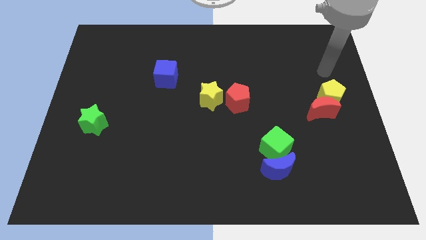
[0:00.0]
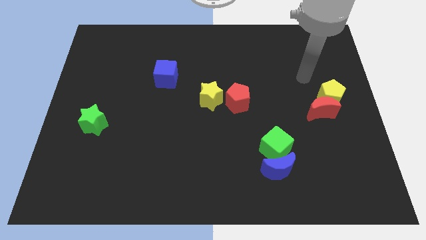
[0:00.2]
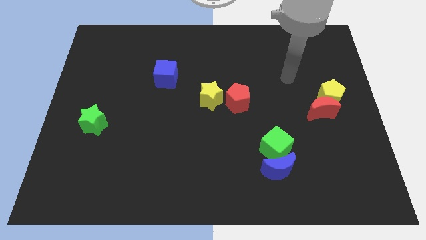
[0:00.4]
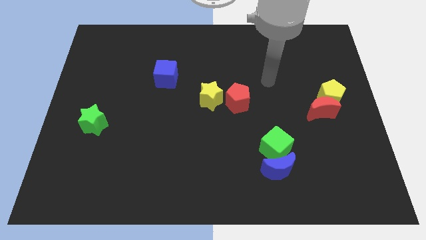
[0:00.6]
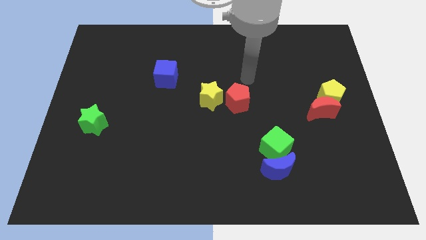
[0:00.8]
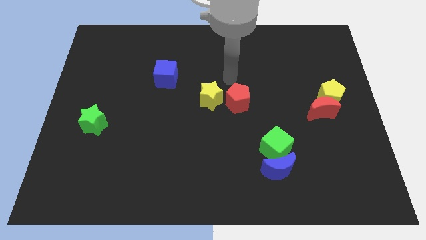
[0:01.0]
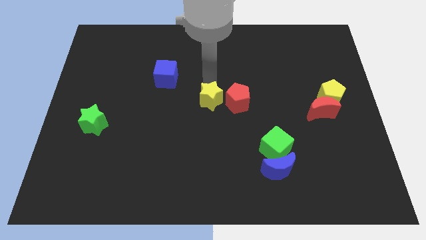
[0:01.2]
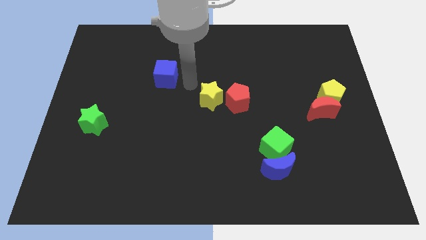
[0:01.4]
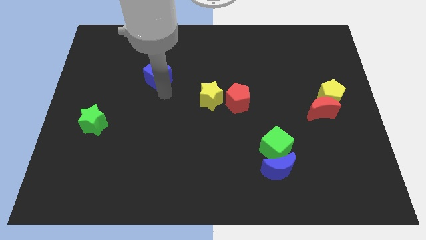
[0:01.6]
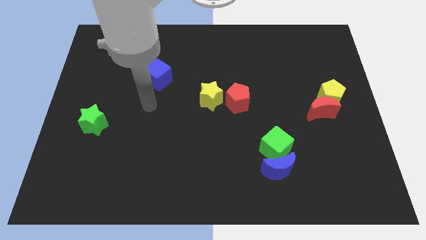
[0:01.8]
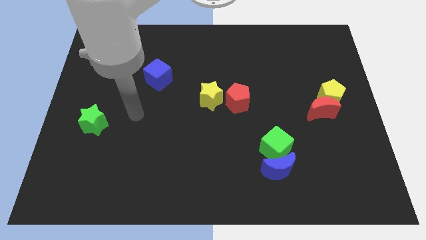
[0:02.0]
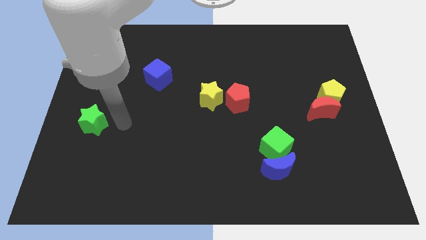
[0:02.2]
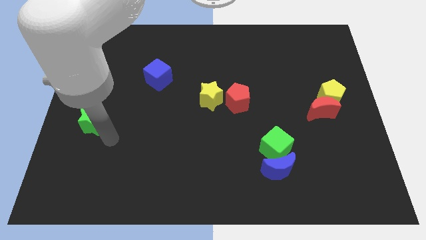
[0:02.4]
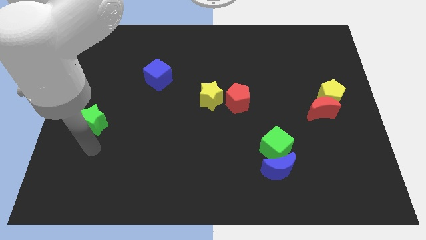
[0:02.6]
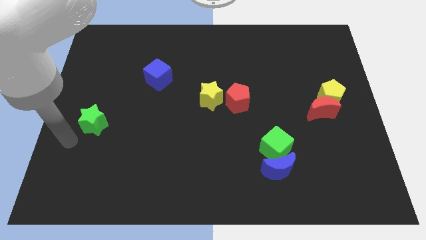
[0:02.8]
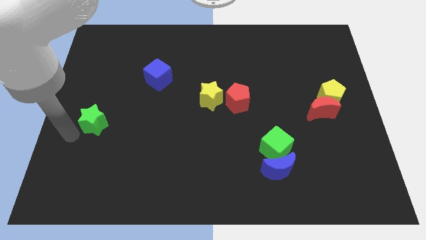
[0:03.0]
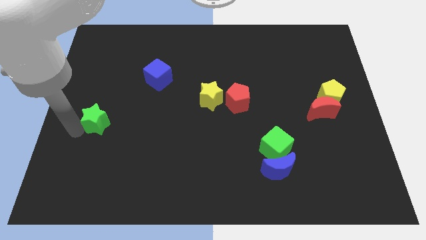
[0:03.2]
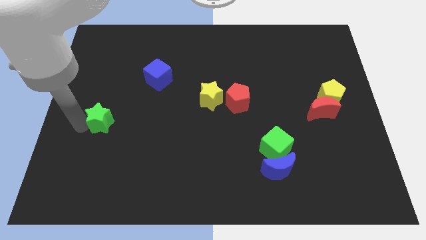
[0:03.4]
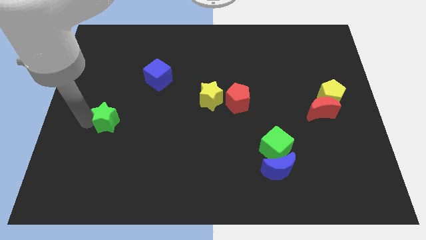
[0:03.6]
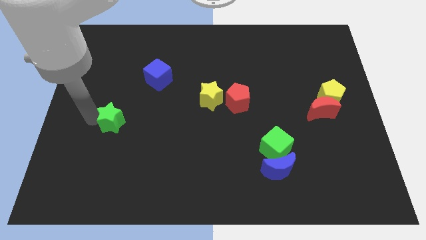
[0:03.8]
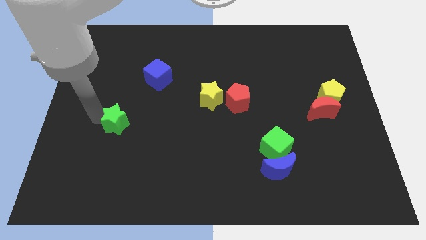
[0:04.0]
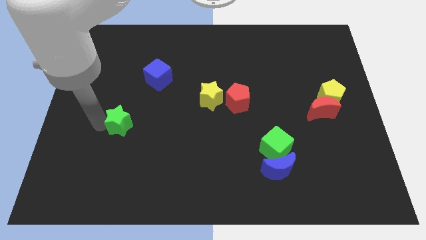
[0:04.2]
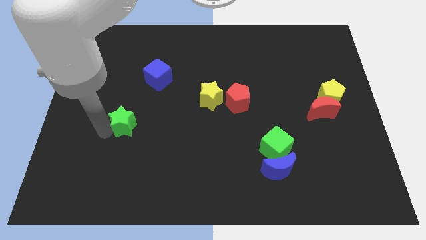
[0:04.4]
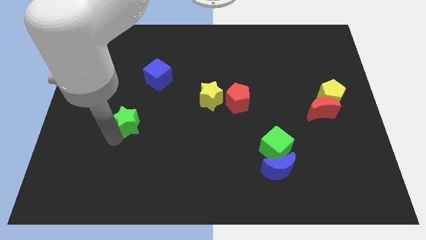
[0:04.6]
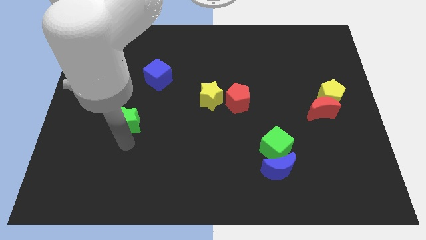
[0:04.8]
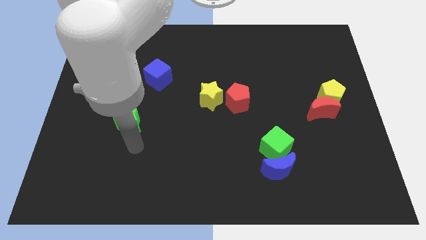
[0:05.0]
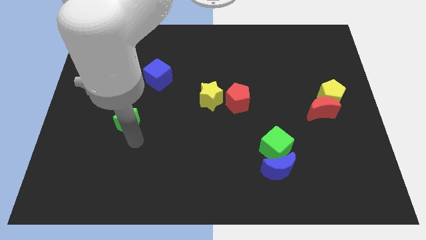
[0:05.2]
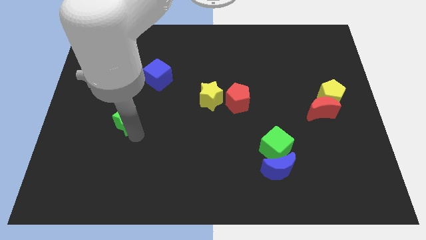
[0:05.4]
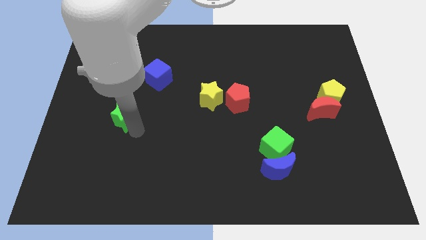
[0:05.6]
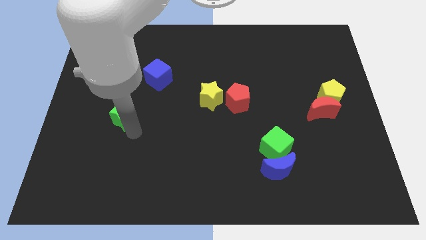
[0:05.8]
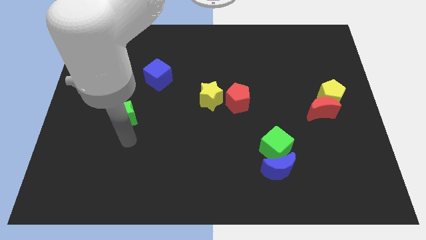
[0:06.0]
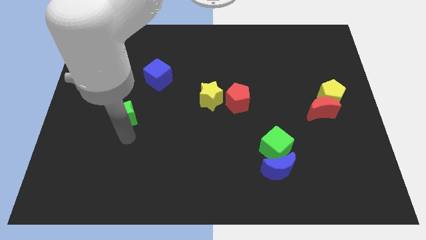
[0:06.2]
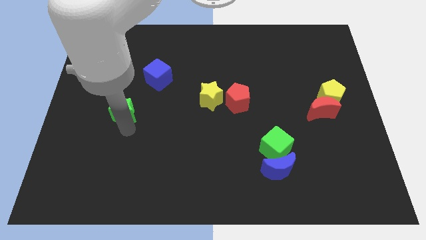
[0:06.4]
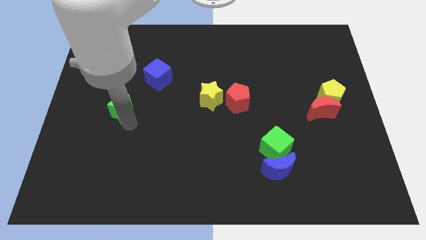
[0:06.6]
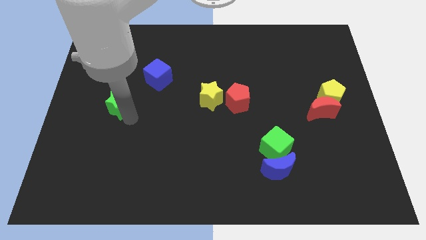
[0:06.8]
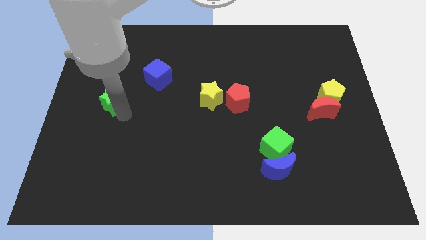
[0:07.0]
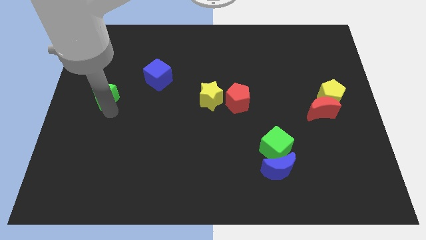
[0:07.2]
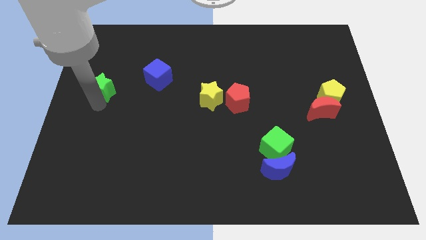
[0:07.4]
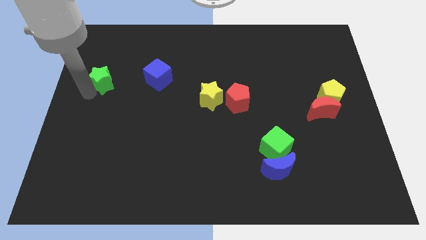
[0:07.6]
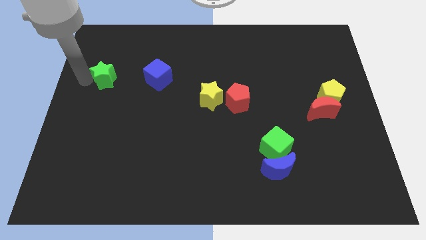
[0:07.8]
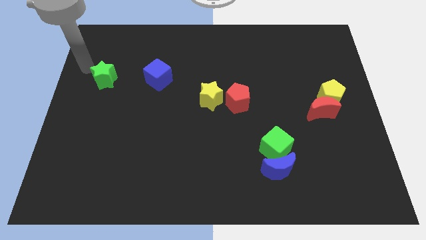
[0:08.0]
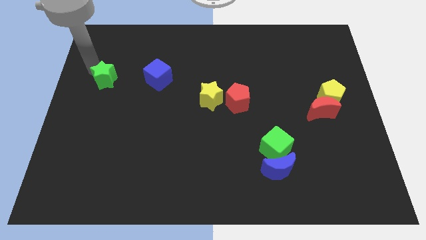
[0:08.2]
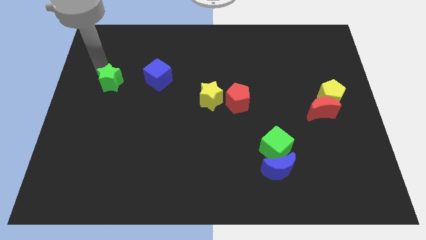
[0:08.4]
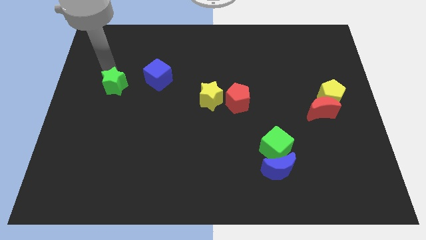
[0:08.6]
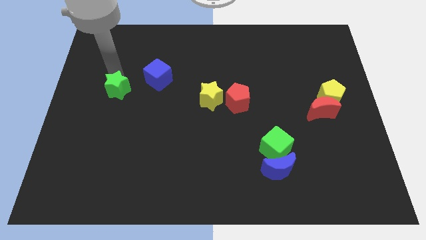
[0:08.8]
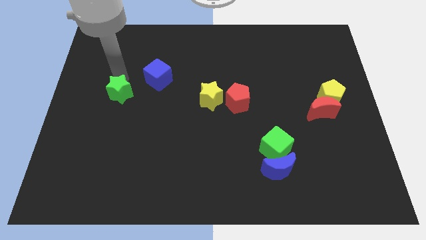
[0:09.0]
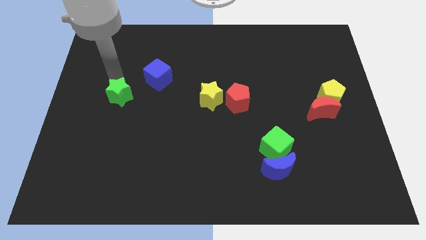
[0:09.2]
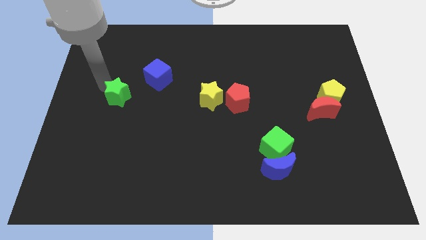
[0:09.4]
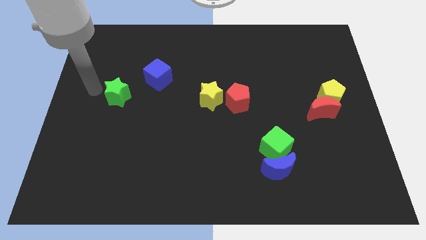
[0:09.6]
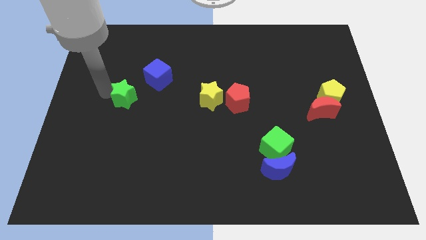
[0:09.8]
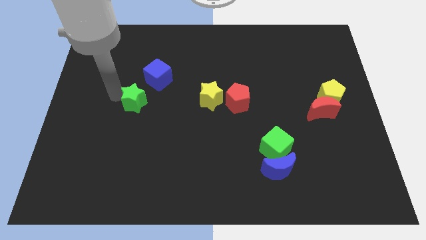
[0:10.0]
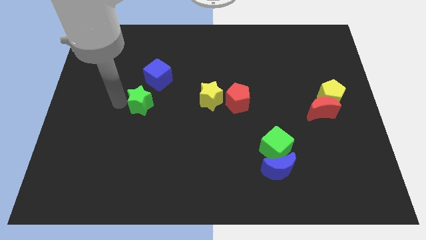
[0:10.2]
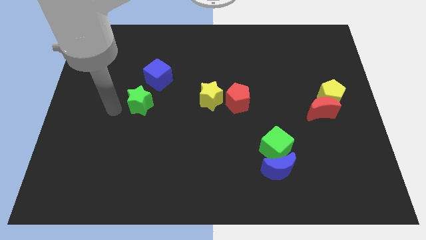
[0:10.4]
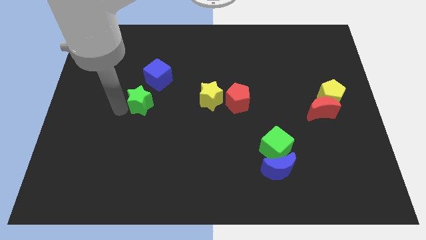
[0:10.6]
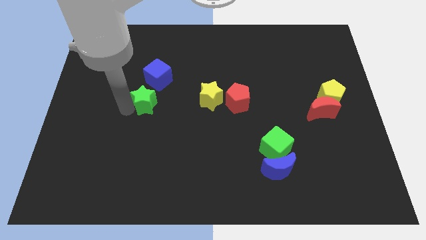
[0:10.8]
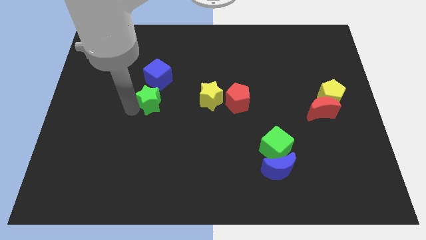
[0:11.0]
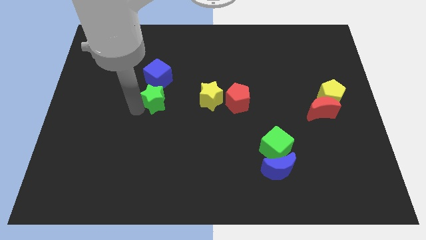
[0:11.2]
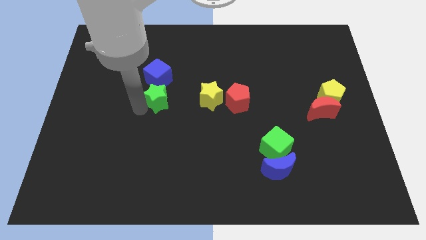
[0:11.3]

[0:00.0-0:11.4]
push the green star to the bottom right side of the blue cube
